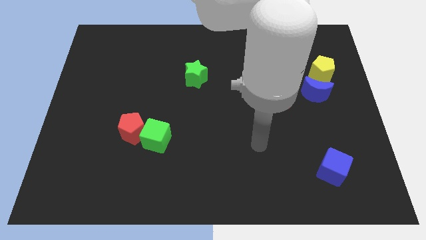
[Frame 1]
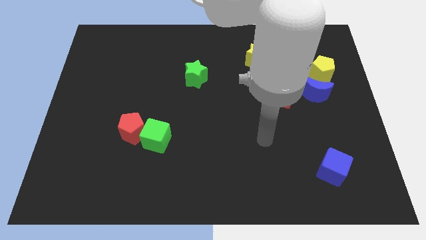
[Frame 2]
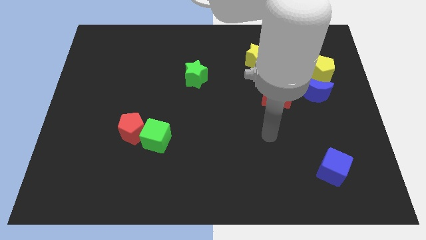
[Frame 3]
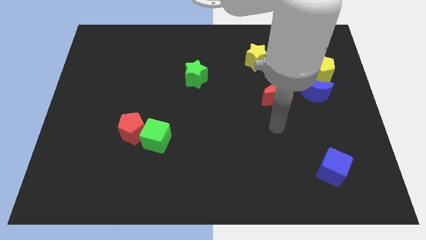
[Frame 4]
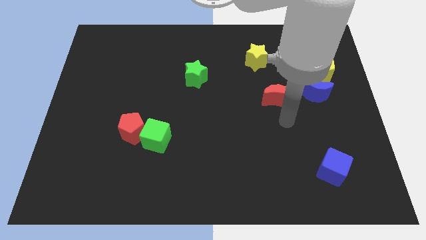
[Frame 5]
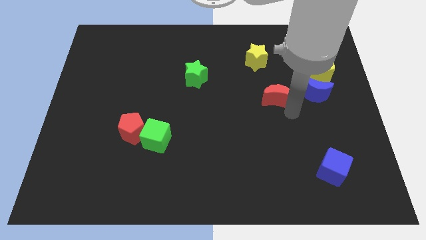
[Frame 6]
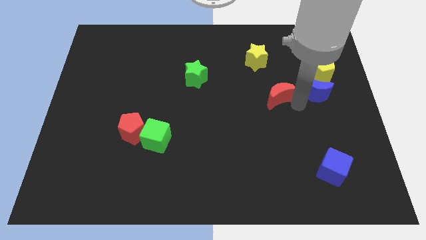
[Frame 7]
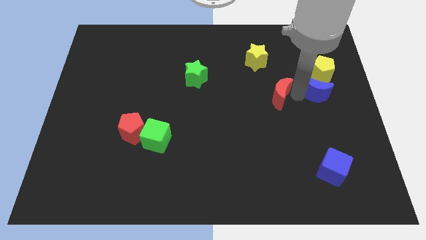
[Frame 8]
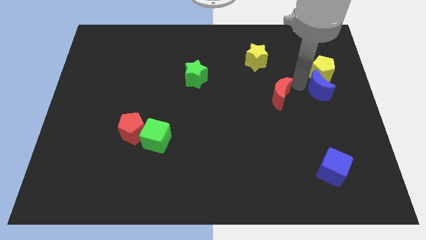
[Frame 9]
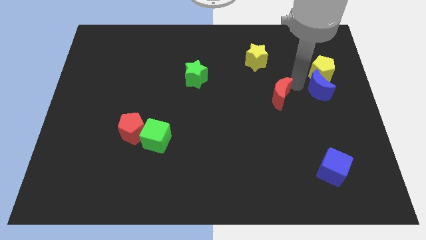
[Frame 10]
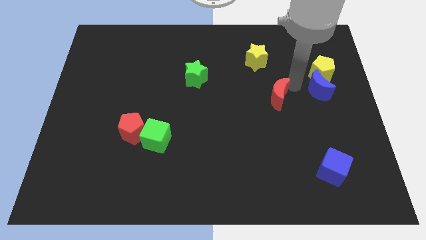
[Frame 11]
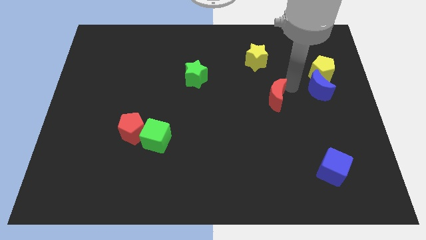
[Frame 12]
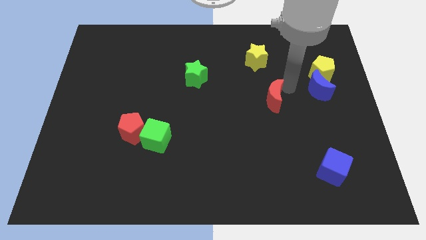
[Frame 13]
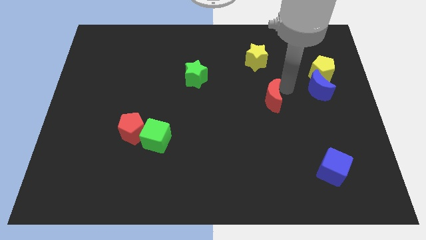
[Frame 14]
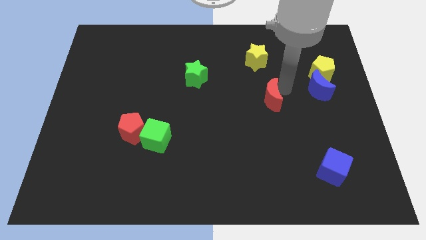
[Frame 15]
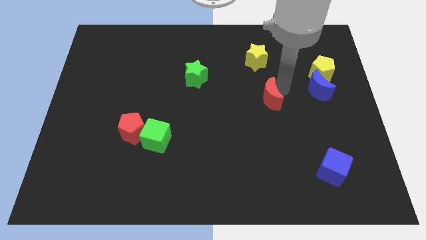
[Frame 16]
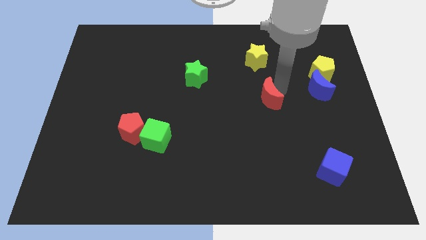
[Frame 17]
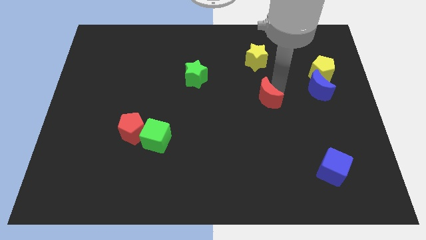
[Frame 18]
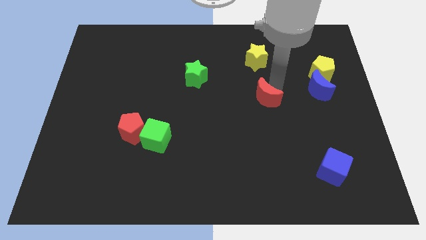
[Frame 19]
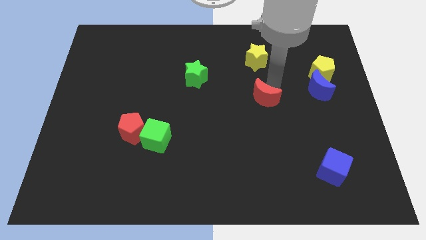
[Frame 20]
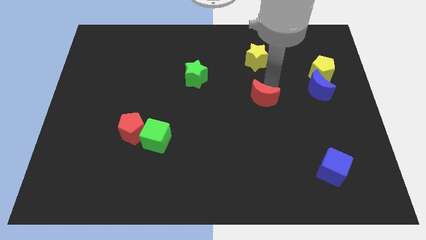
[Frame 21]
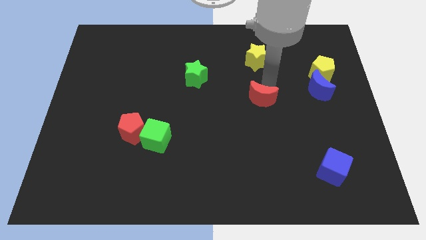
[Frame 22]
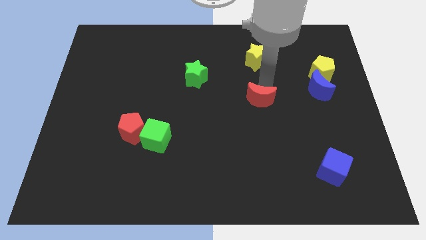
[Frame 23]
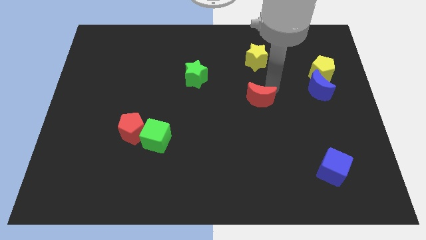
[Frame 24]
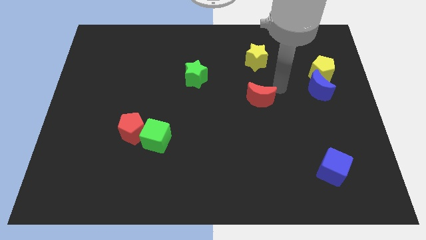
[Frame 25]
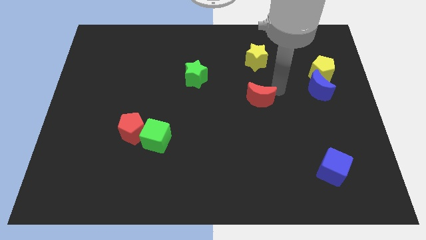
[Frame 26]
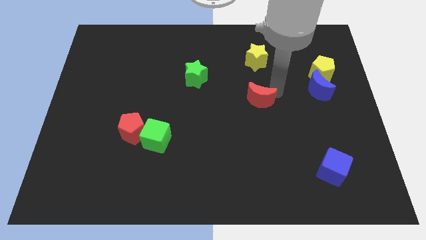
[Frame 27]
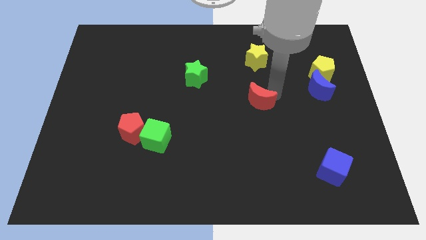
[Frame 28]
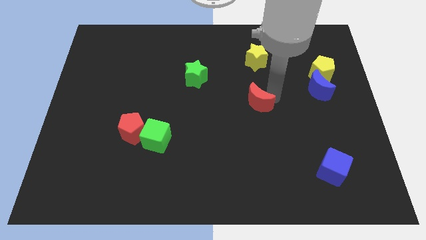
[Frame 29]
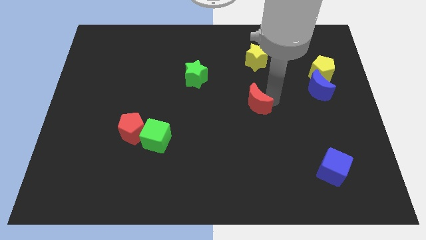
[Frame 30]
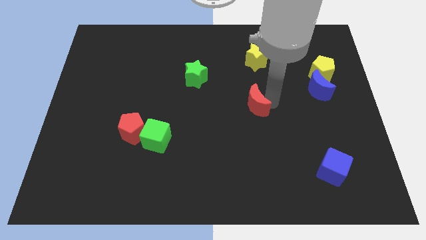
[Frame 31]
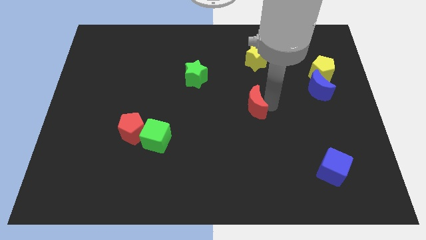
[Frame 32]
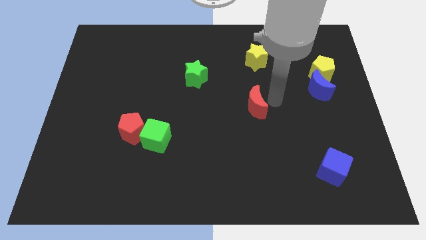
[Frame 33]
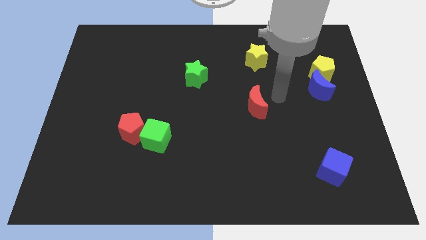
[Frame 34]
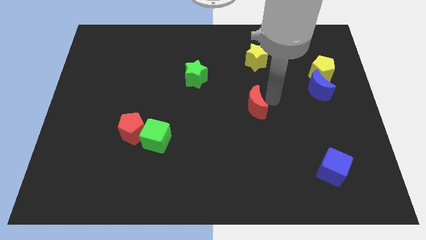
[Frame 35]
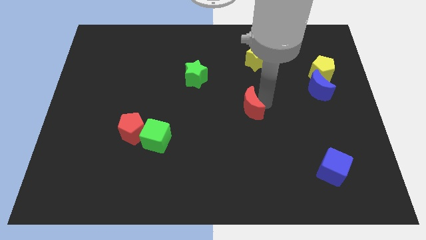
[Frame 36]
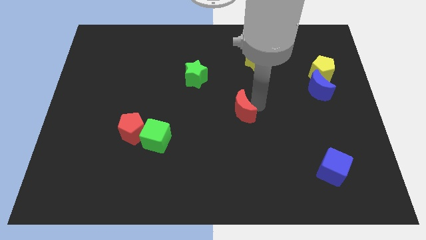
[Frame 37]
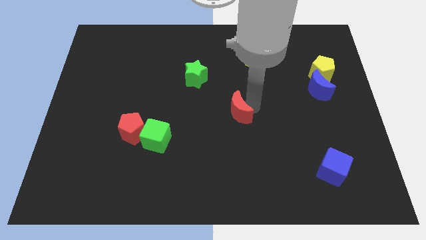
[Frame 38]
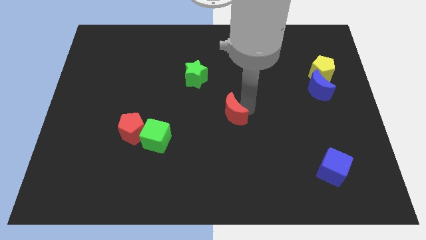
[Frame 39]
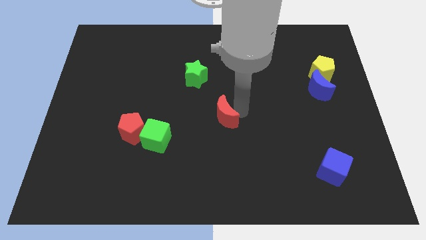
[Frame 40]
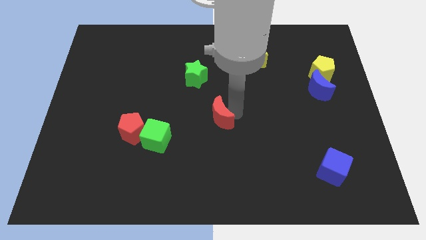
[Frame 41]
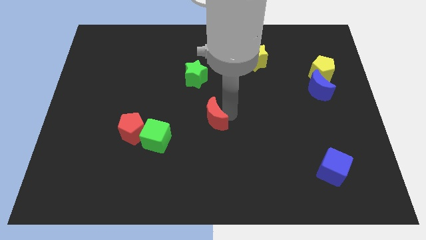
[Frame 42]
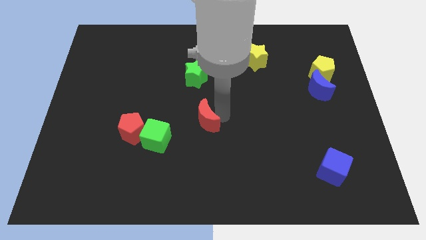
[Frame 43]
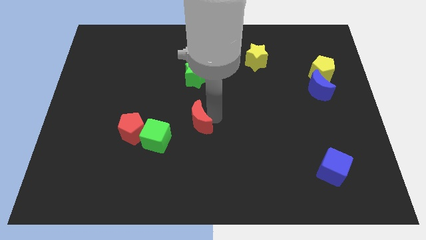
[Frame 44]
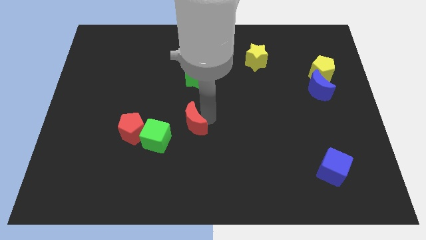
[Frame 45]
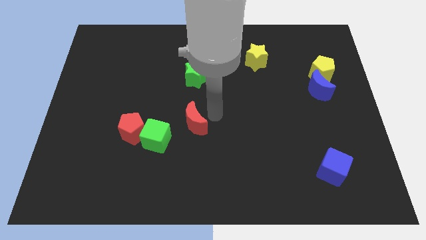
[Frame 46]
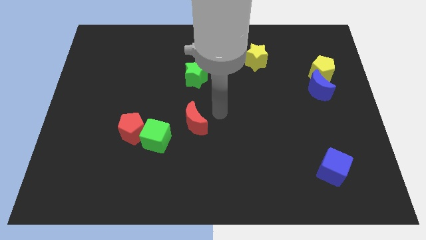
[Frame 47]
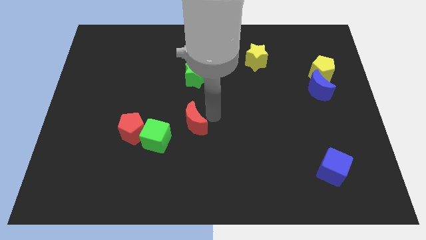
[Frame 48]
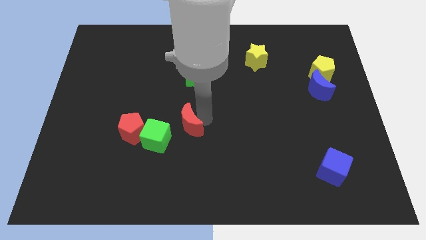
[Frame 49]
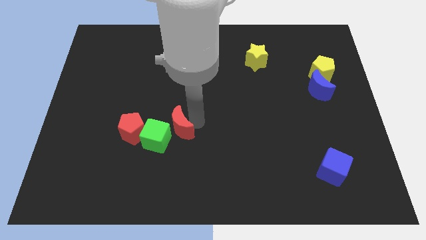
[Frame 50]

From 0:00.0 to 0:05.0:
put the red moon to the green cube

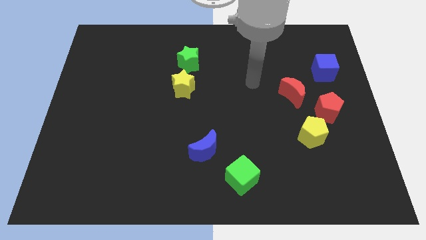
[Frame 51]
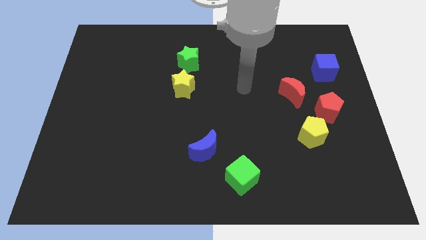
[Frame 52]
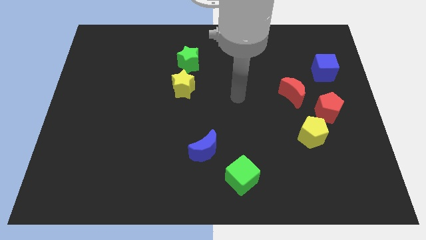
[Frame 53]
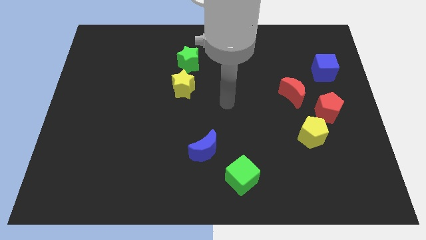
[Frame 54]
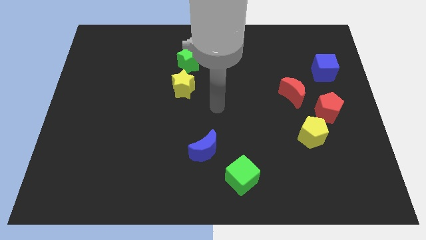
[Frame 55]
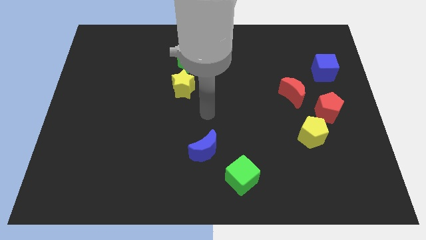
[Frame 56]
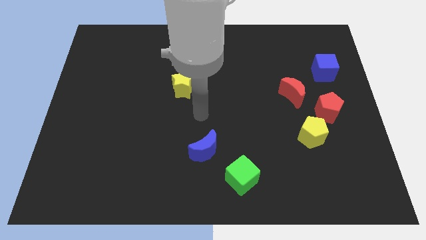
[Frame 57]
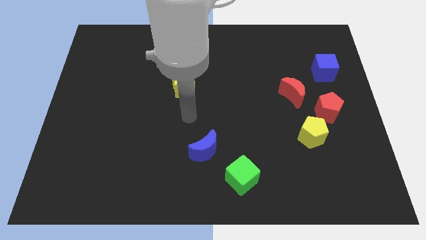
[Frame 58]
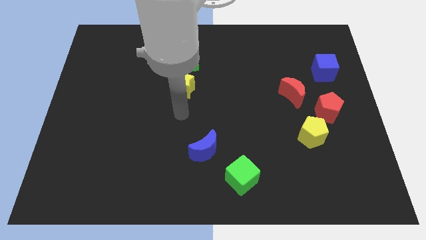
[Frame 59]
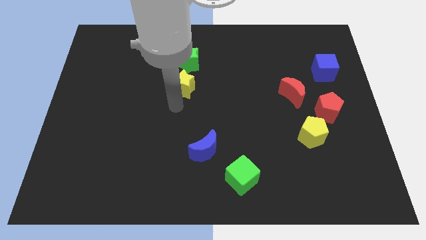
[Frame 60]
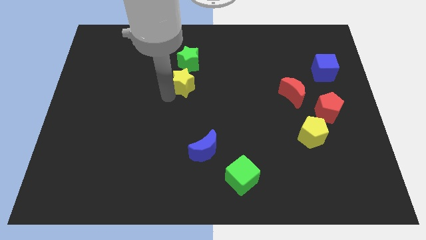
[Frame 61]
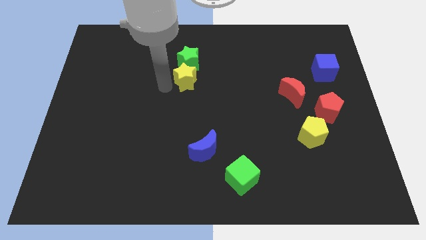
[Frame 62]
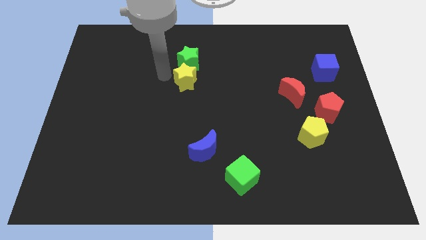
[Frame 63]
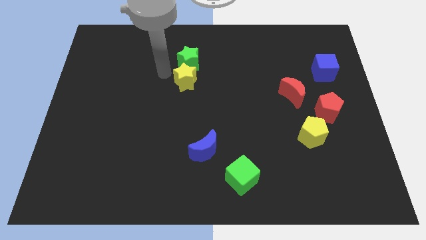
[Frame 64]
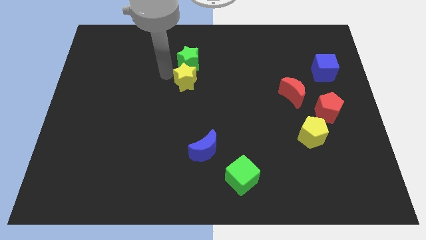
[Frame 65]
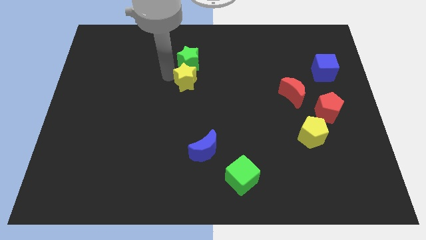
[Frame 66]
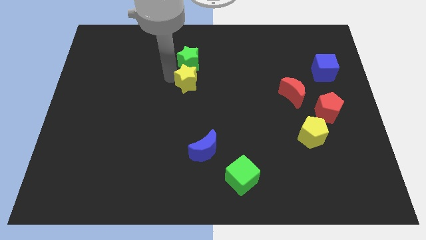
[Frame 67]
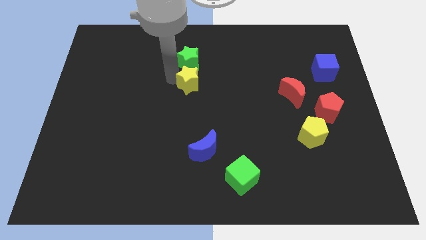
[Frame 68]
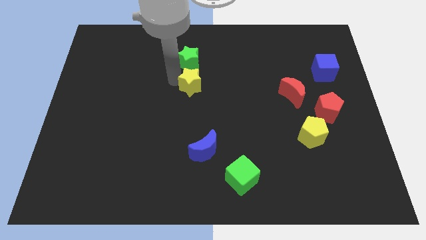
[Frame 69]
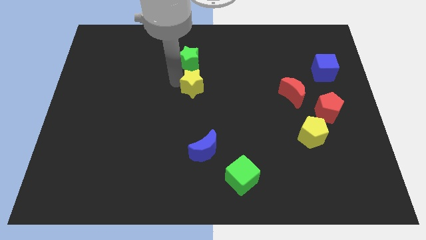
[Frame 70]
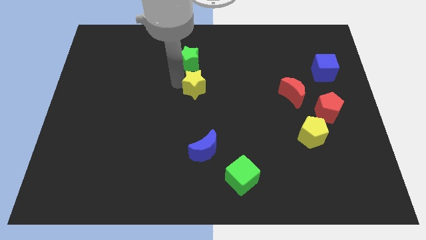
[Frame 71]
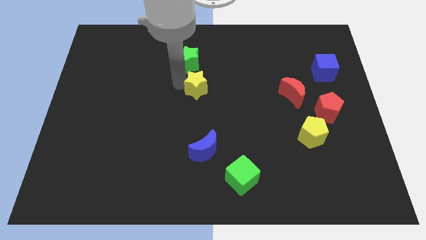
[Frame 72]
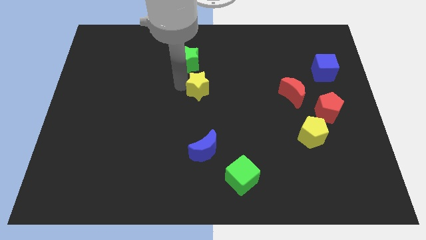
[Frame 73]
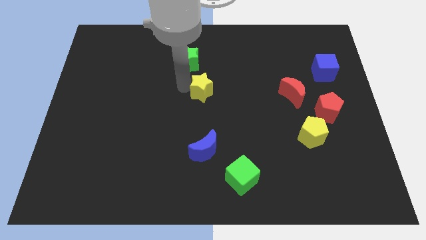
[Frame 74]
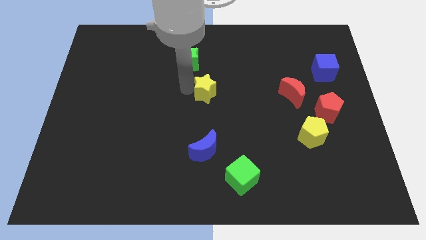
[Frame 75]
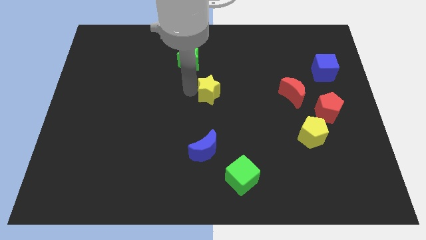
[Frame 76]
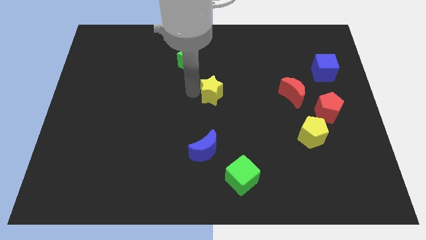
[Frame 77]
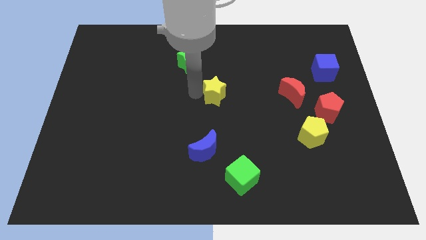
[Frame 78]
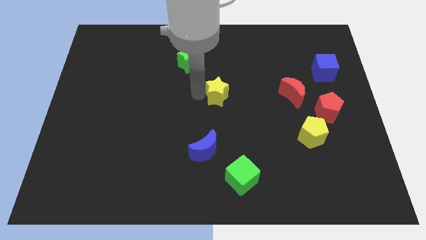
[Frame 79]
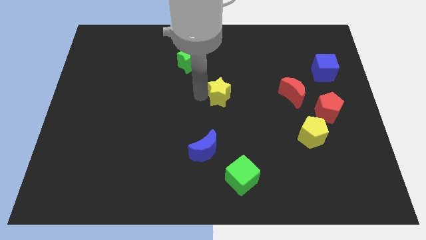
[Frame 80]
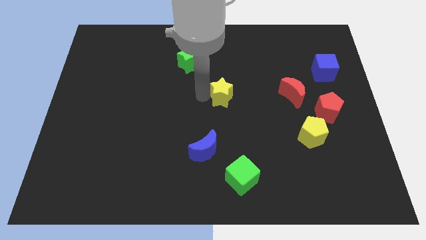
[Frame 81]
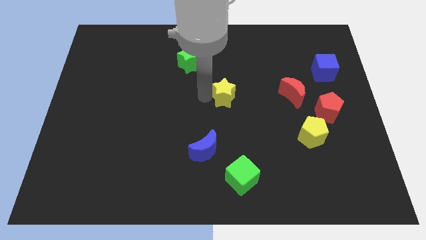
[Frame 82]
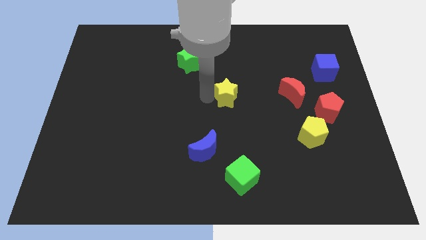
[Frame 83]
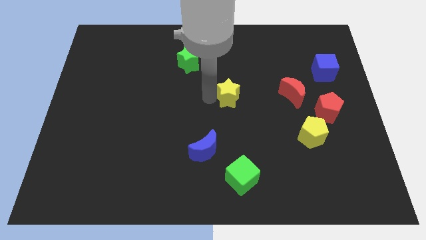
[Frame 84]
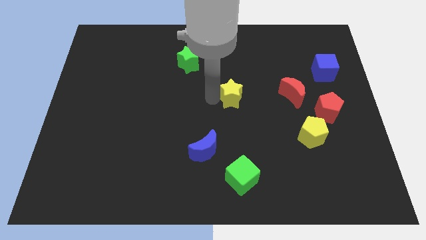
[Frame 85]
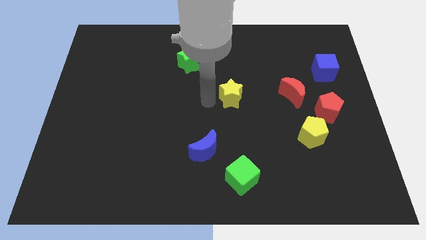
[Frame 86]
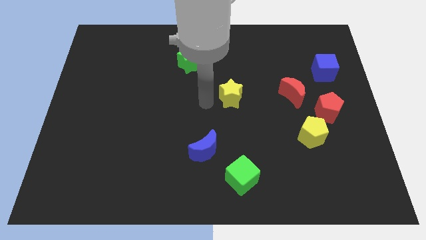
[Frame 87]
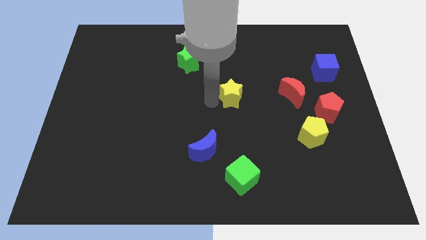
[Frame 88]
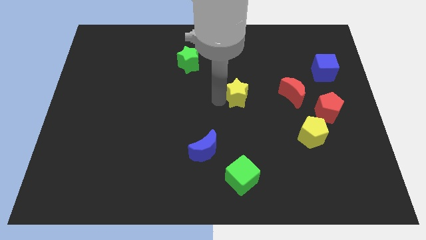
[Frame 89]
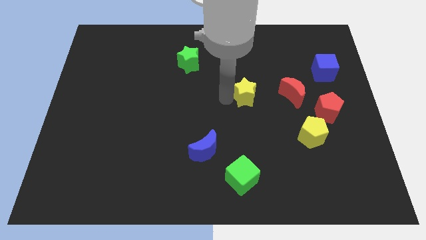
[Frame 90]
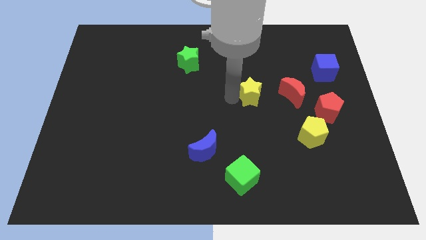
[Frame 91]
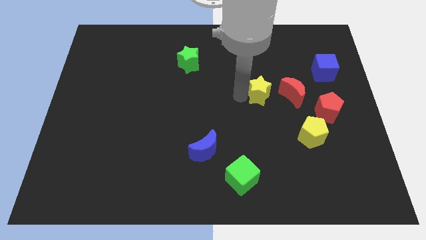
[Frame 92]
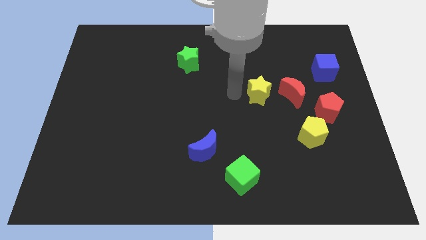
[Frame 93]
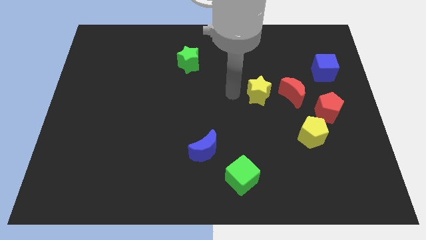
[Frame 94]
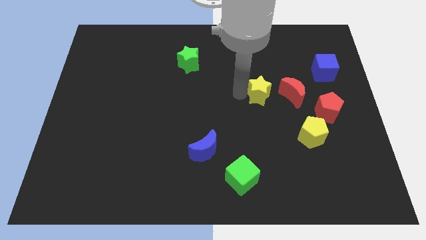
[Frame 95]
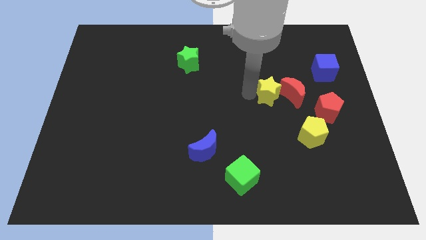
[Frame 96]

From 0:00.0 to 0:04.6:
push the yellow star towards the red moon
